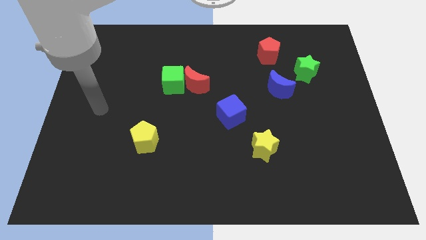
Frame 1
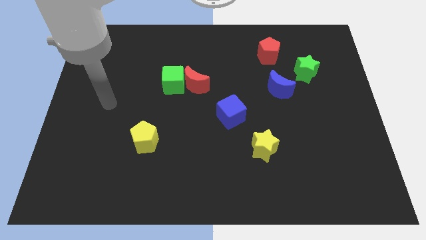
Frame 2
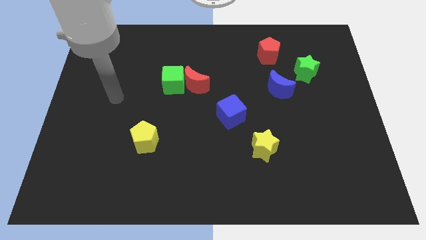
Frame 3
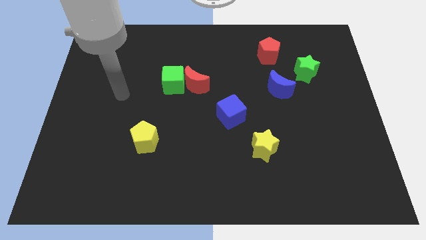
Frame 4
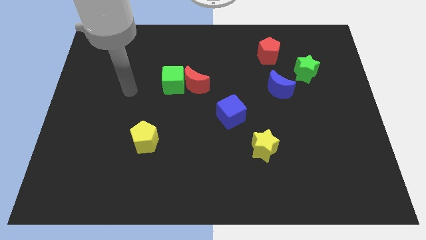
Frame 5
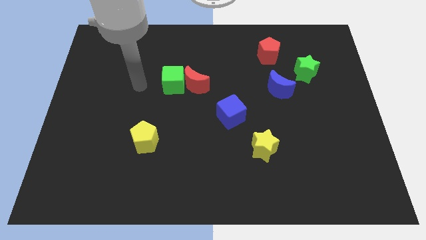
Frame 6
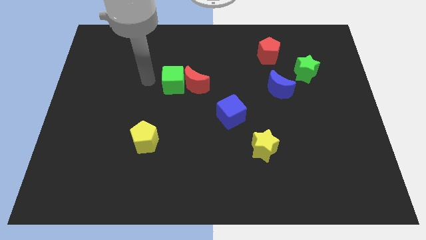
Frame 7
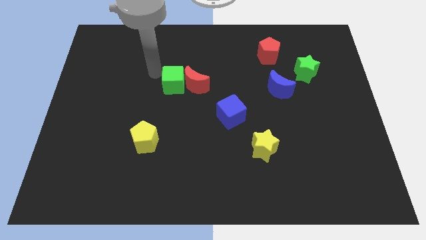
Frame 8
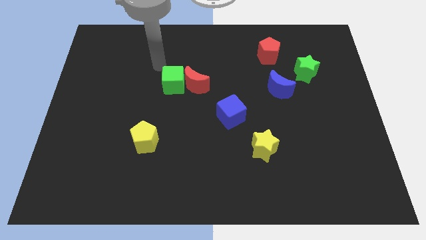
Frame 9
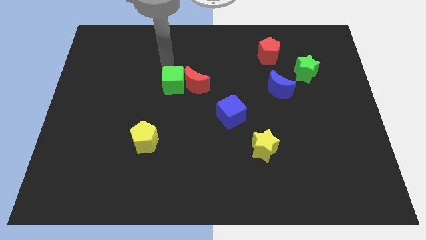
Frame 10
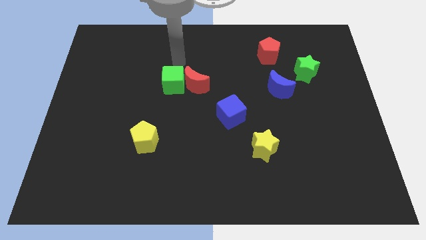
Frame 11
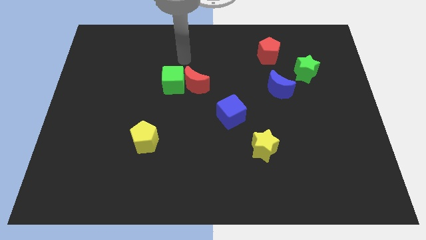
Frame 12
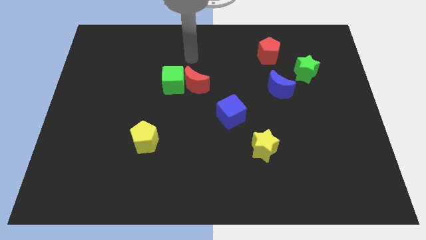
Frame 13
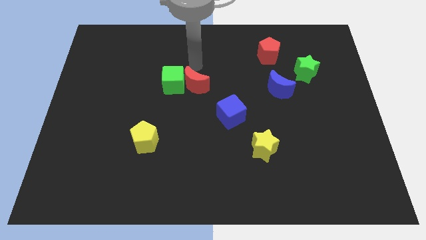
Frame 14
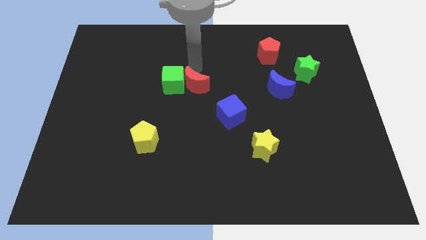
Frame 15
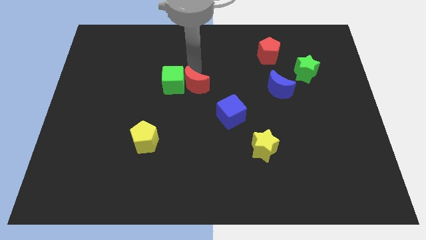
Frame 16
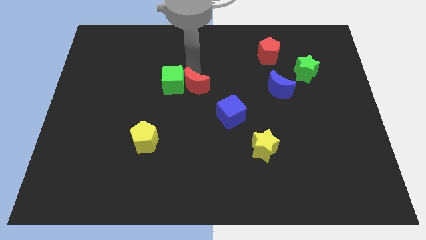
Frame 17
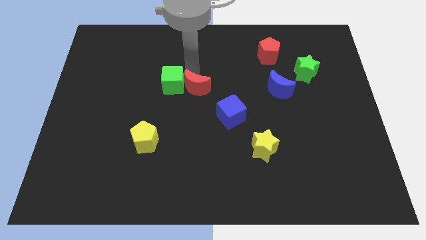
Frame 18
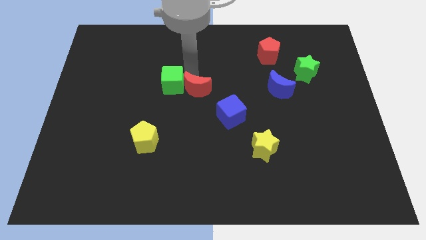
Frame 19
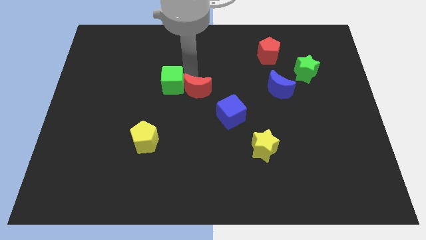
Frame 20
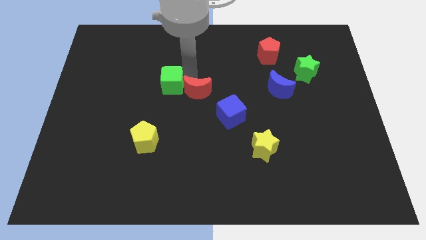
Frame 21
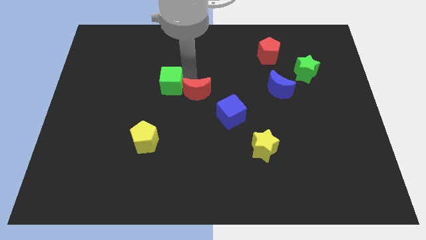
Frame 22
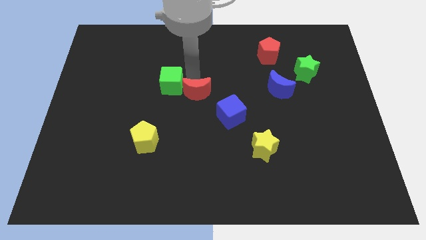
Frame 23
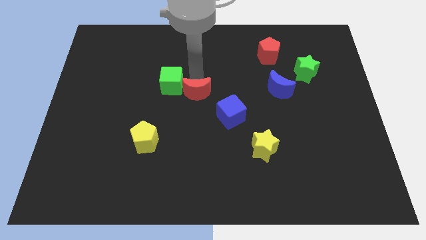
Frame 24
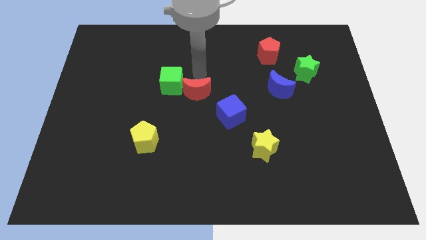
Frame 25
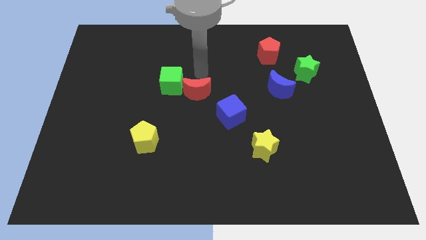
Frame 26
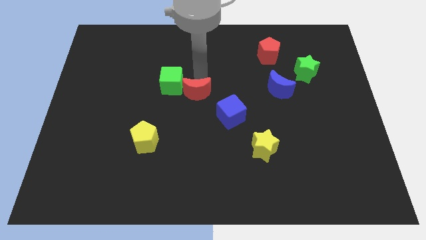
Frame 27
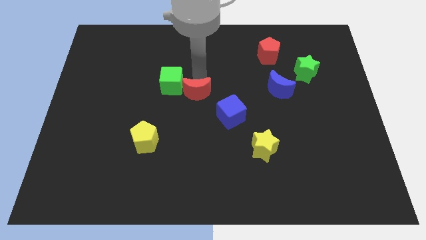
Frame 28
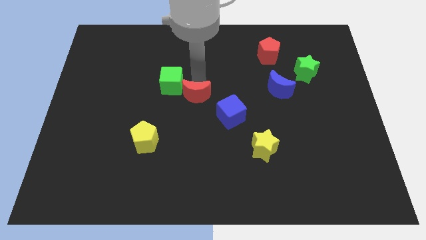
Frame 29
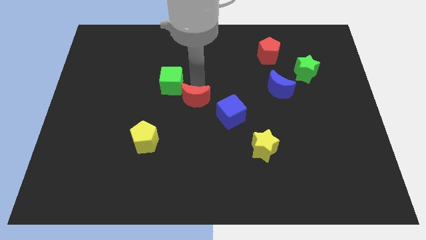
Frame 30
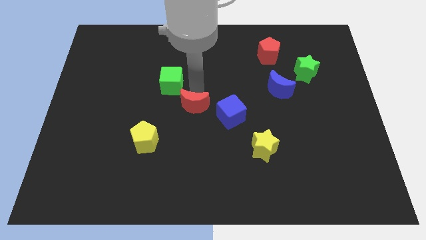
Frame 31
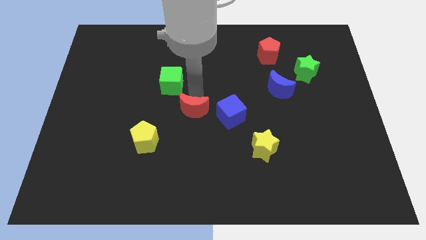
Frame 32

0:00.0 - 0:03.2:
slightly push the red moon downwards

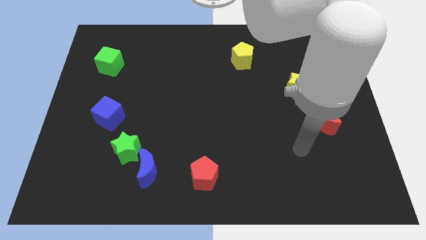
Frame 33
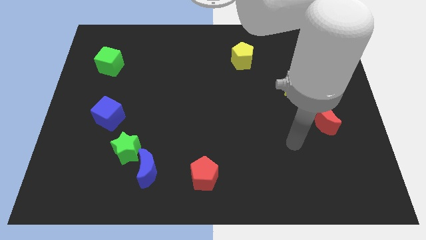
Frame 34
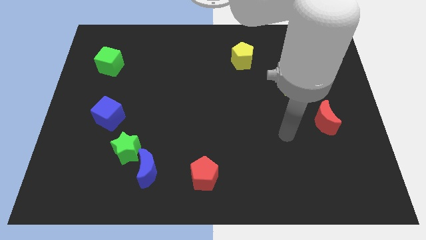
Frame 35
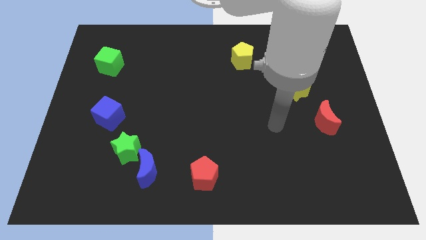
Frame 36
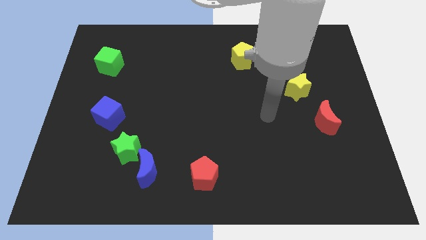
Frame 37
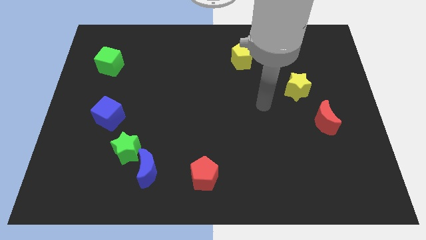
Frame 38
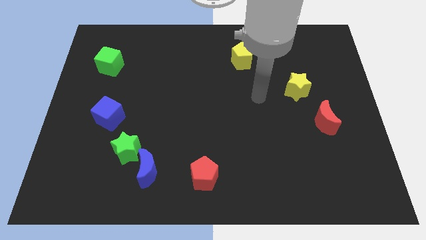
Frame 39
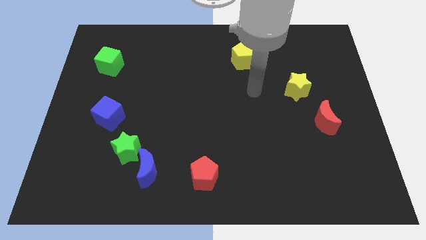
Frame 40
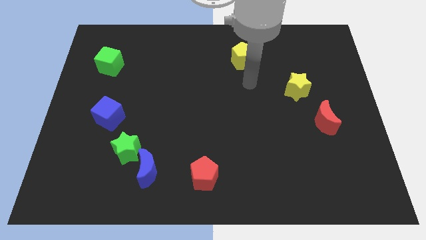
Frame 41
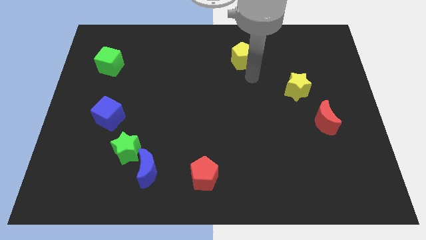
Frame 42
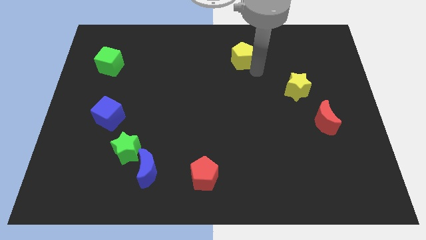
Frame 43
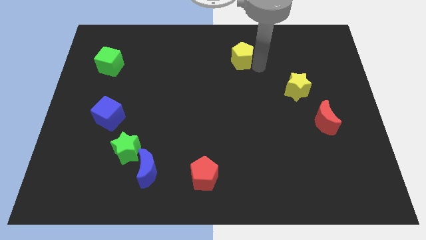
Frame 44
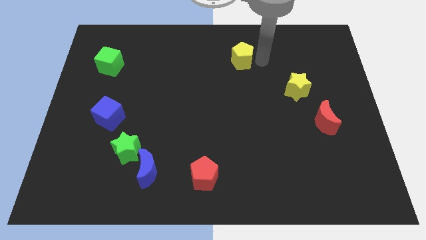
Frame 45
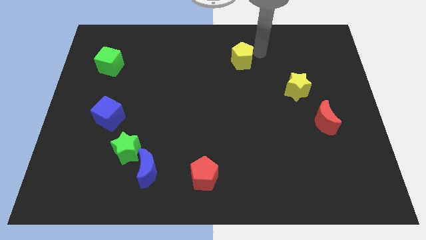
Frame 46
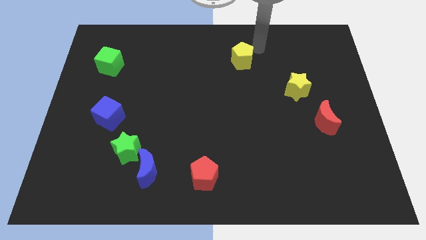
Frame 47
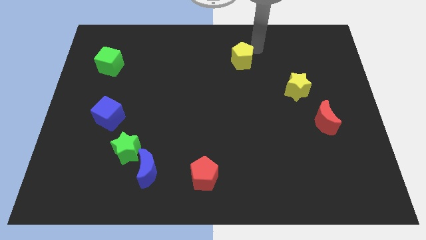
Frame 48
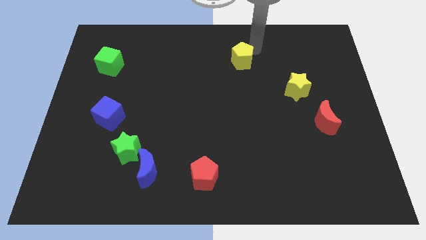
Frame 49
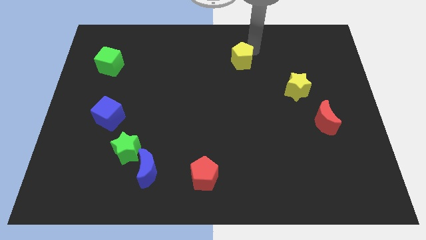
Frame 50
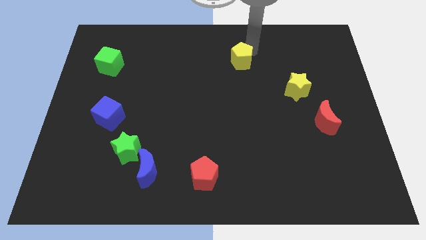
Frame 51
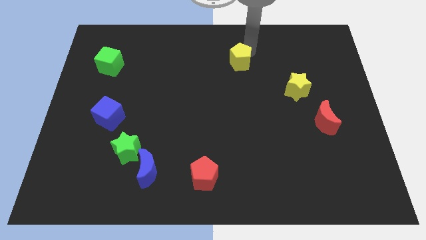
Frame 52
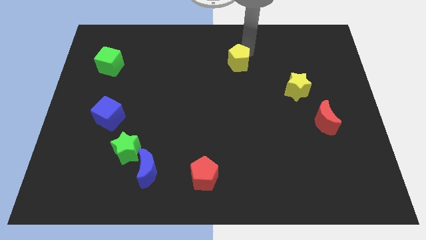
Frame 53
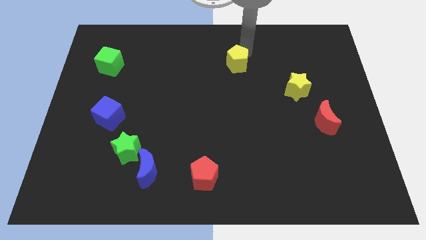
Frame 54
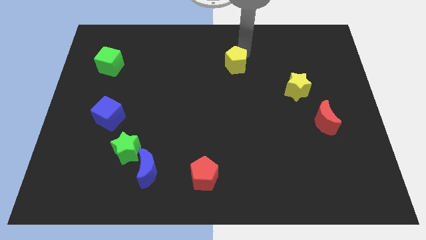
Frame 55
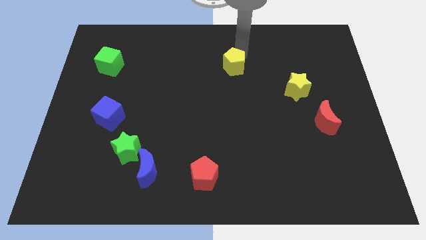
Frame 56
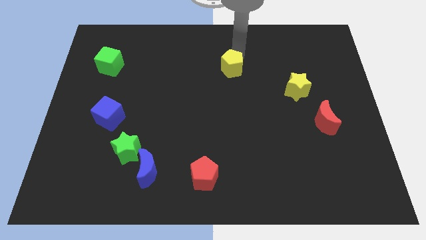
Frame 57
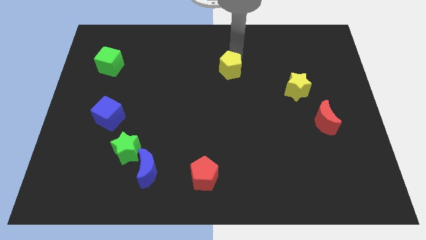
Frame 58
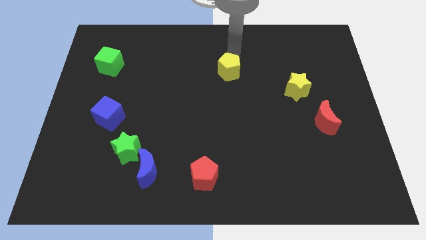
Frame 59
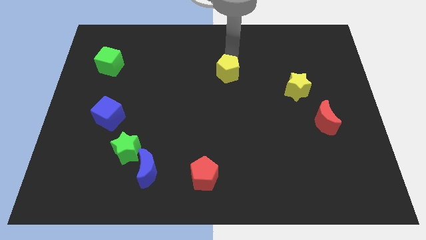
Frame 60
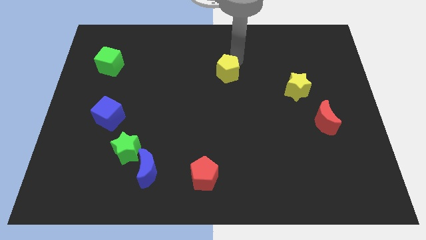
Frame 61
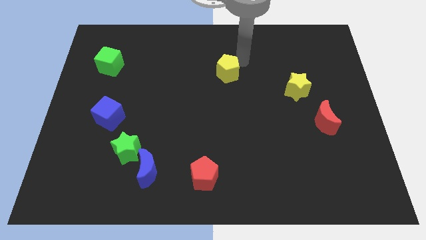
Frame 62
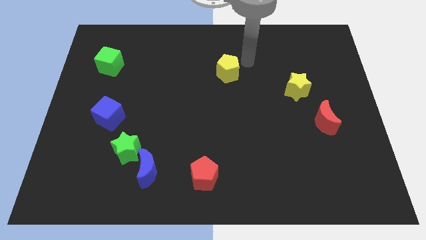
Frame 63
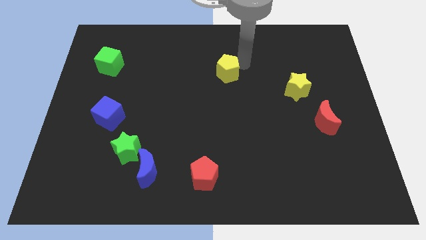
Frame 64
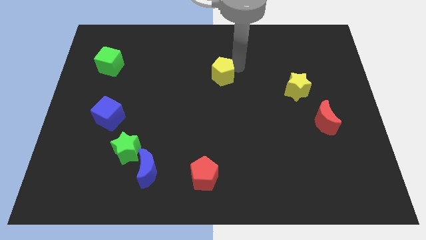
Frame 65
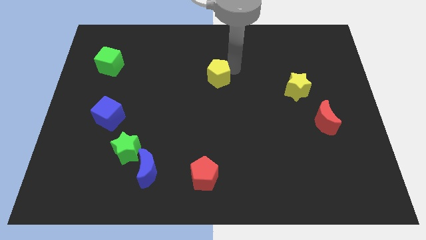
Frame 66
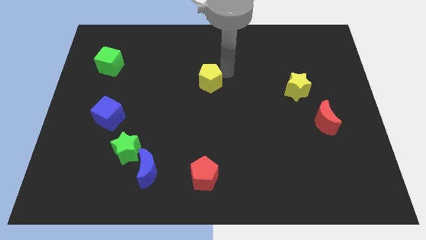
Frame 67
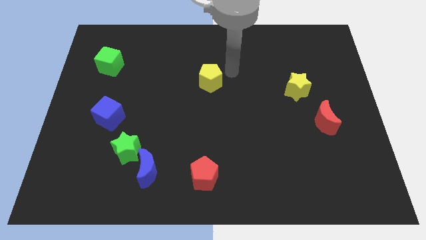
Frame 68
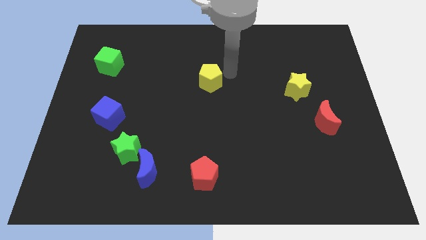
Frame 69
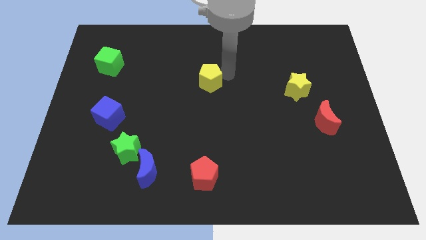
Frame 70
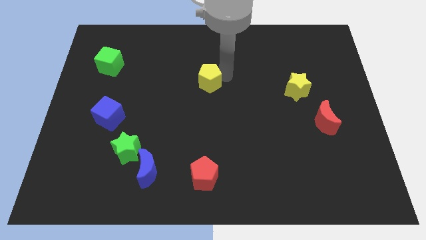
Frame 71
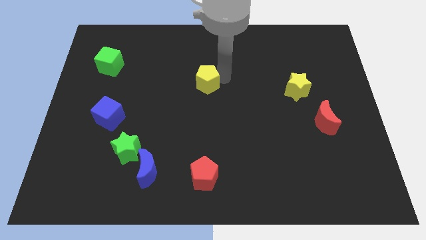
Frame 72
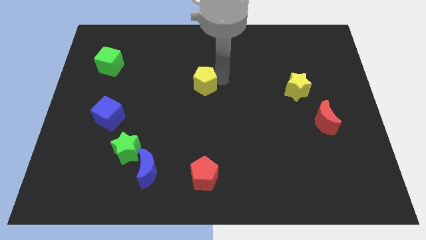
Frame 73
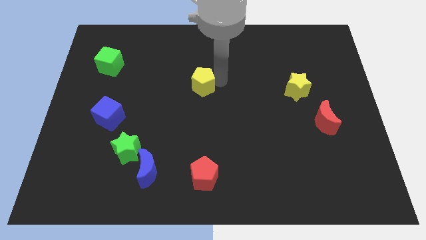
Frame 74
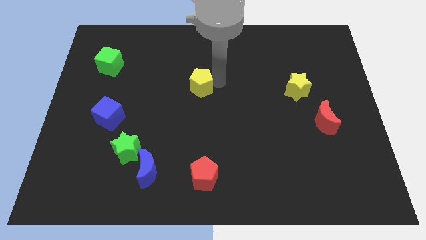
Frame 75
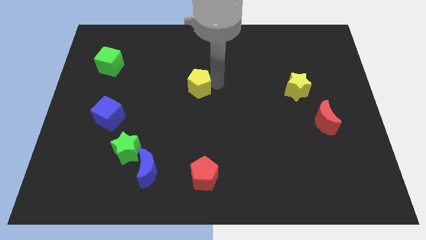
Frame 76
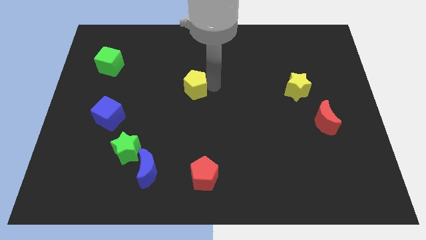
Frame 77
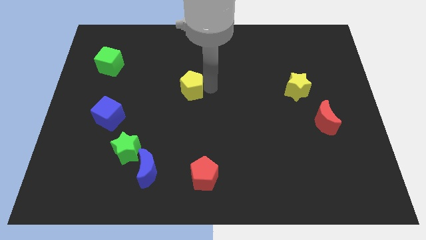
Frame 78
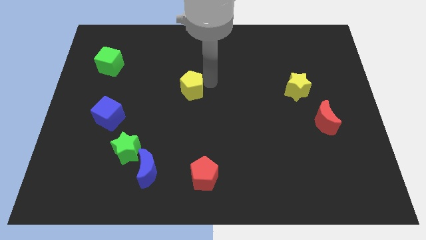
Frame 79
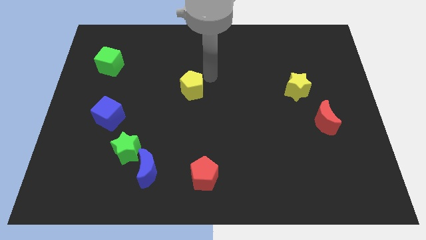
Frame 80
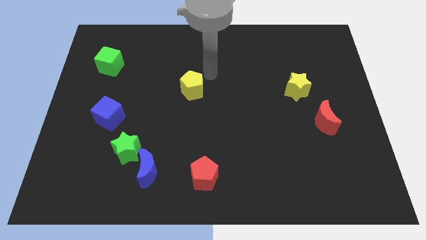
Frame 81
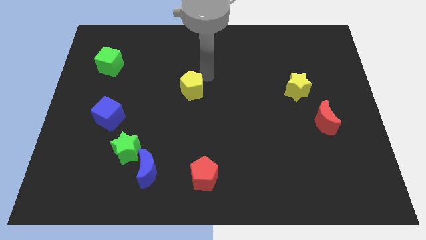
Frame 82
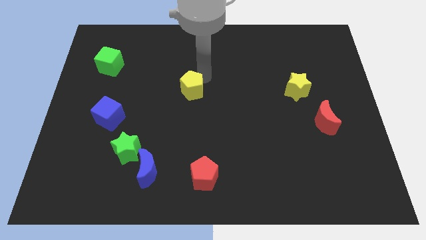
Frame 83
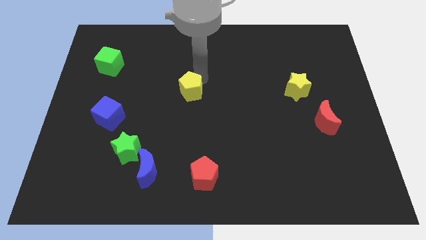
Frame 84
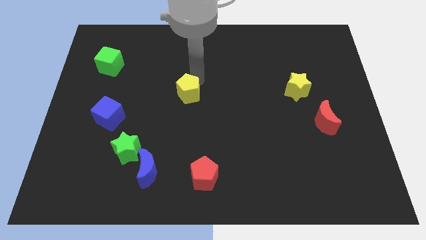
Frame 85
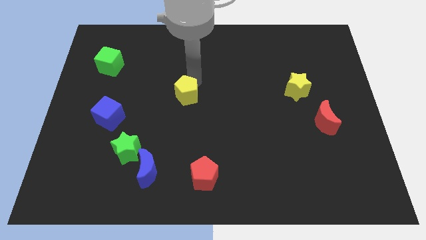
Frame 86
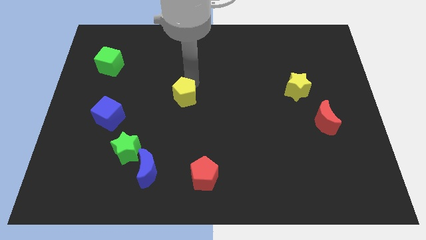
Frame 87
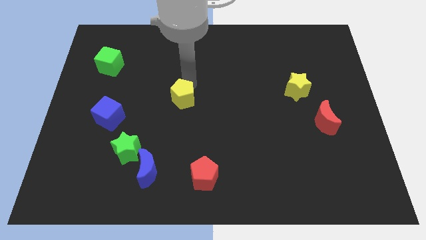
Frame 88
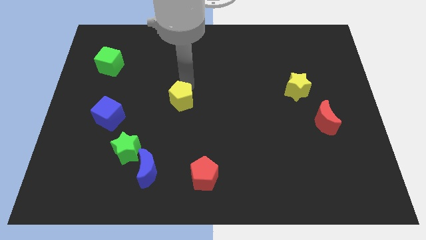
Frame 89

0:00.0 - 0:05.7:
push the yellow pentagon diagonally down and left
